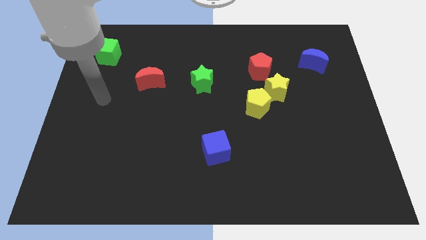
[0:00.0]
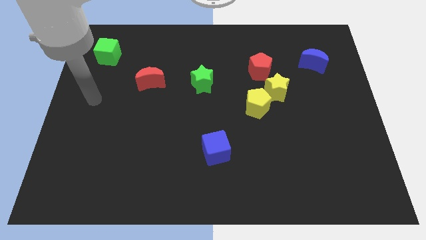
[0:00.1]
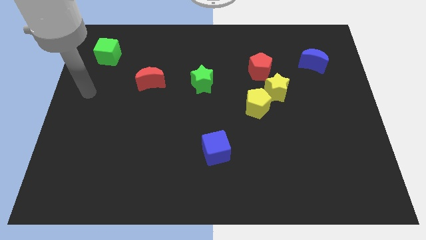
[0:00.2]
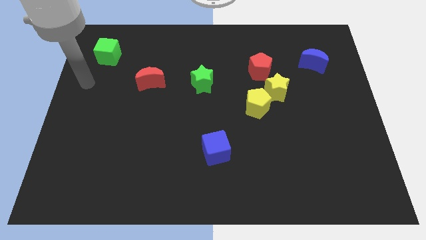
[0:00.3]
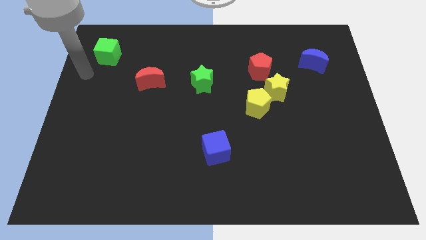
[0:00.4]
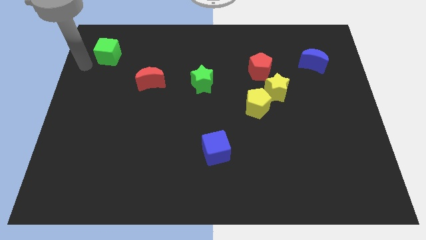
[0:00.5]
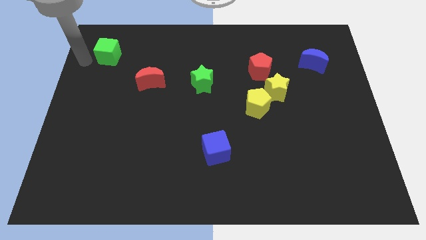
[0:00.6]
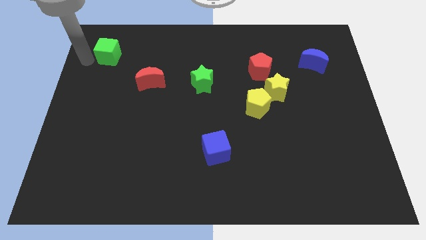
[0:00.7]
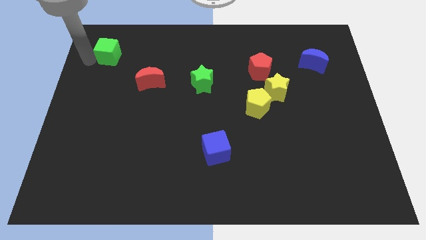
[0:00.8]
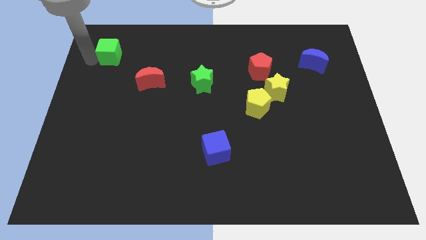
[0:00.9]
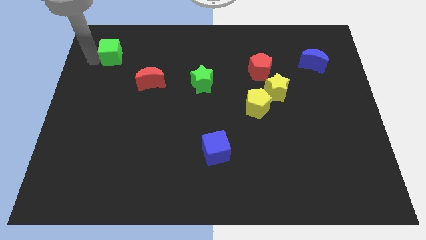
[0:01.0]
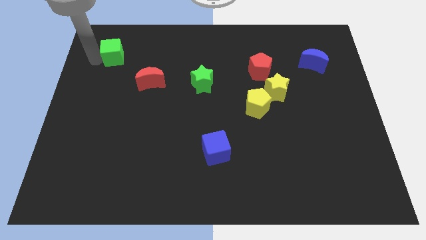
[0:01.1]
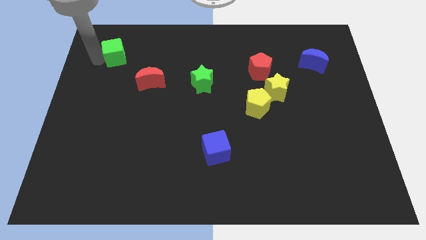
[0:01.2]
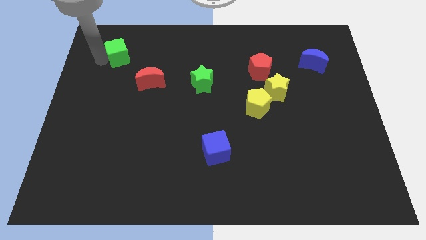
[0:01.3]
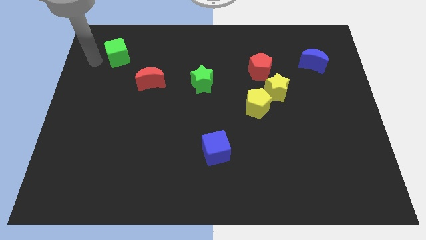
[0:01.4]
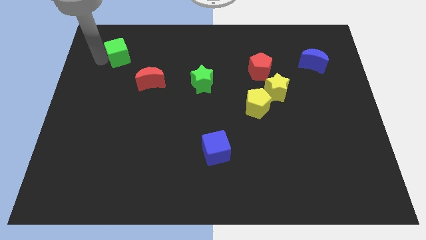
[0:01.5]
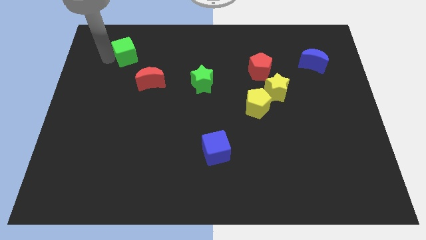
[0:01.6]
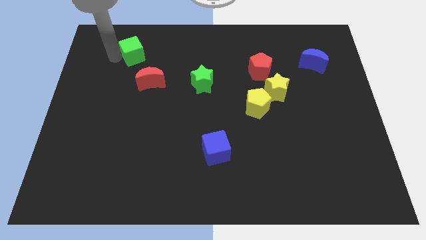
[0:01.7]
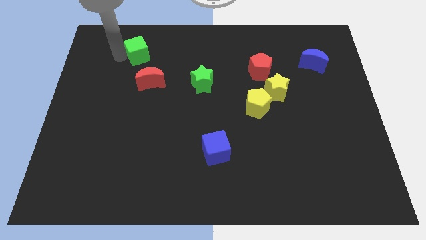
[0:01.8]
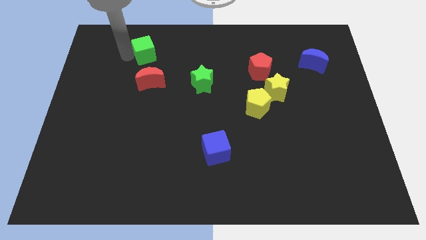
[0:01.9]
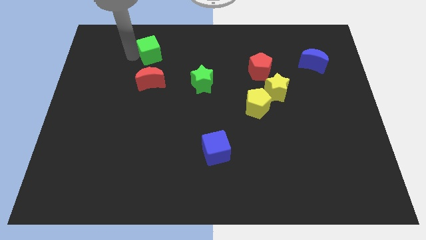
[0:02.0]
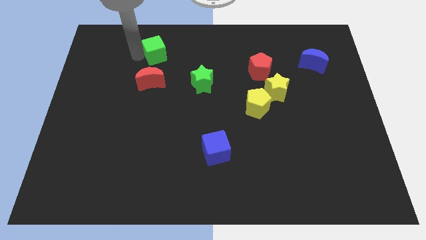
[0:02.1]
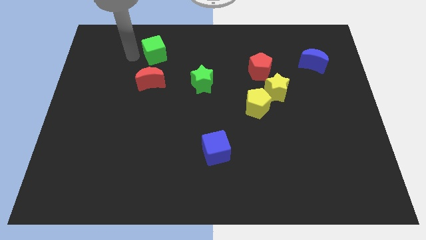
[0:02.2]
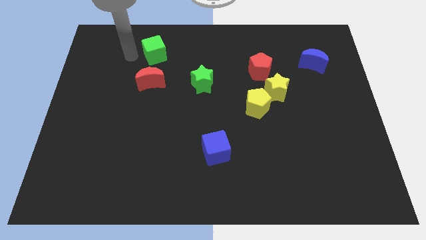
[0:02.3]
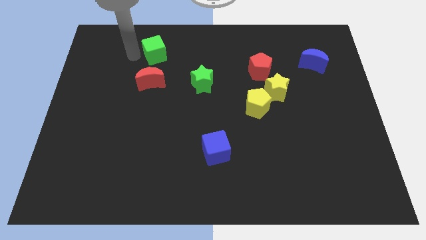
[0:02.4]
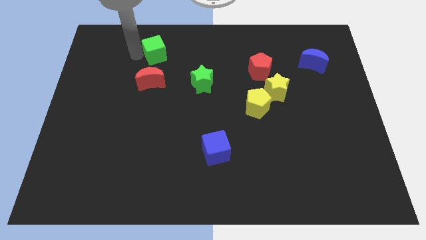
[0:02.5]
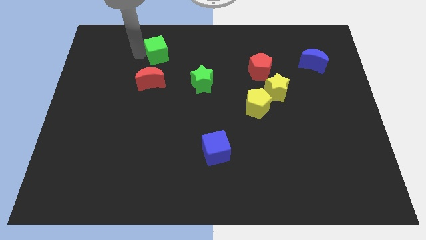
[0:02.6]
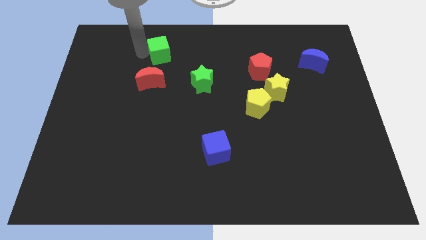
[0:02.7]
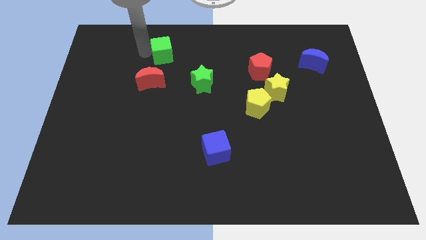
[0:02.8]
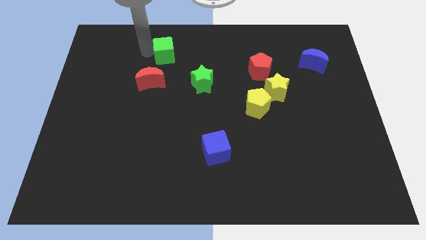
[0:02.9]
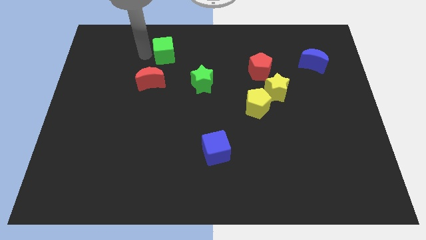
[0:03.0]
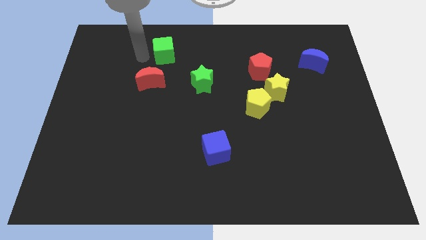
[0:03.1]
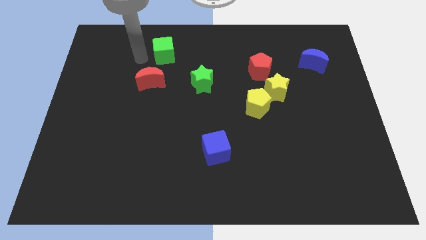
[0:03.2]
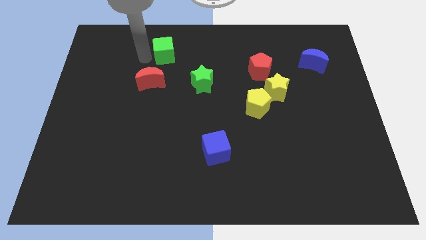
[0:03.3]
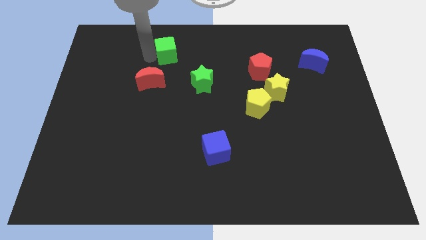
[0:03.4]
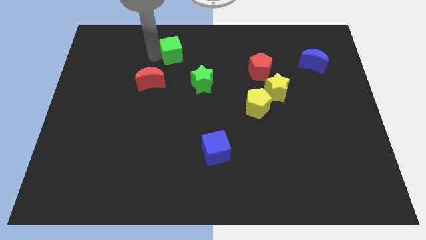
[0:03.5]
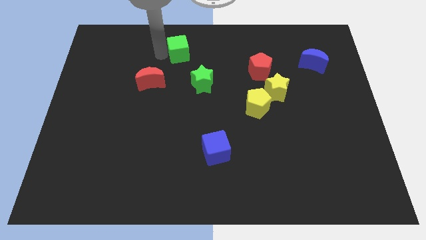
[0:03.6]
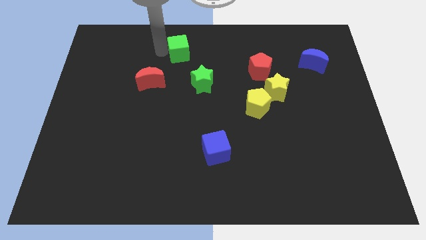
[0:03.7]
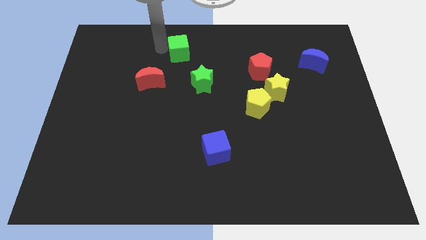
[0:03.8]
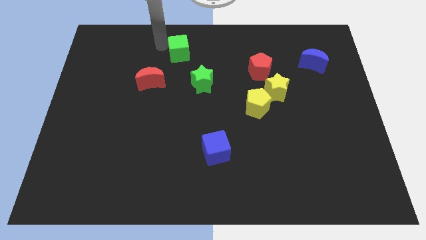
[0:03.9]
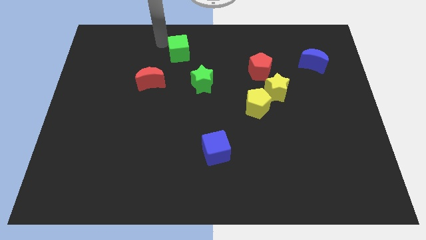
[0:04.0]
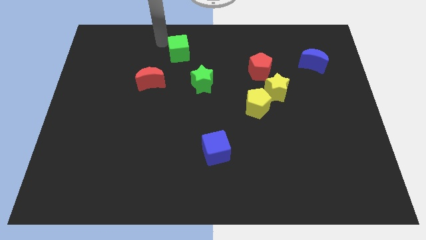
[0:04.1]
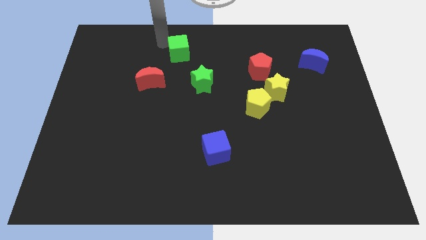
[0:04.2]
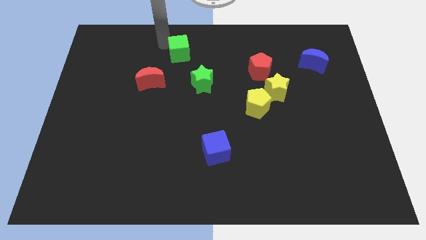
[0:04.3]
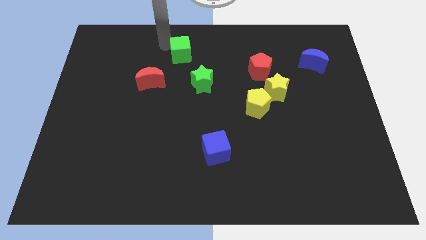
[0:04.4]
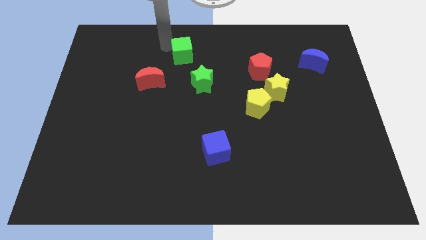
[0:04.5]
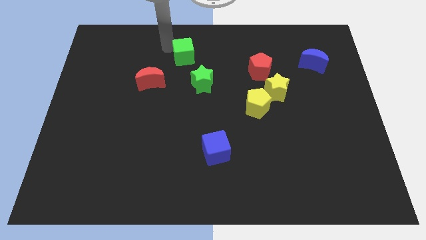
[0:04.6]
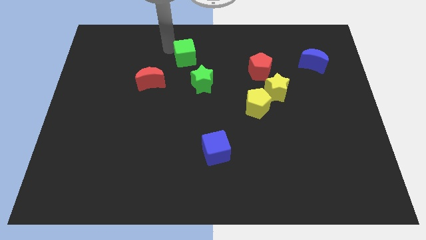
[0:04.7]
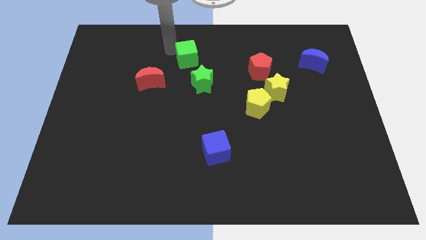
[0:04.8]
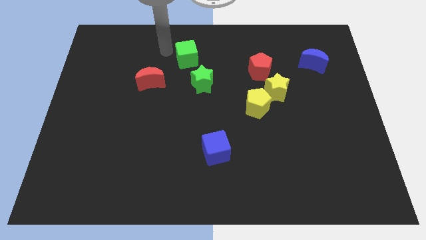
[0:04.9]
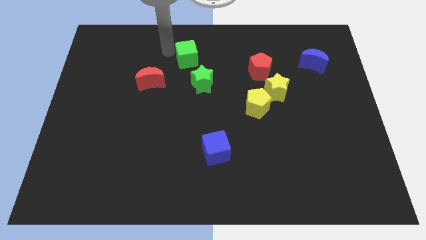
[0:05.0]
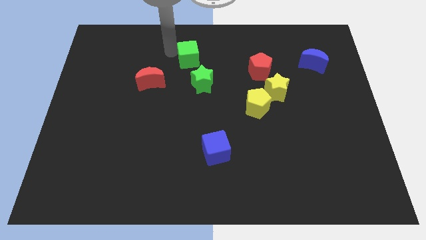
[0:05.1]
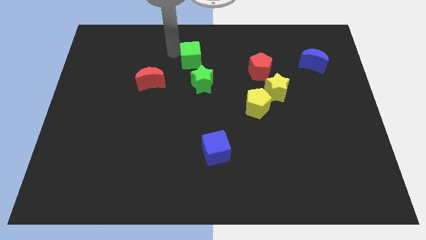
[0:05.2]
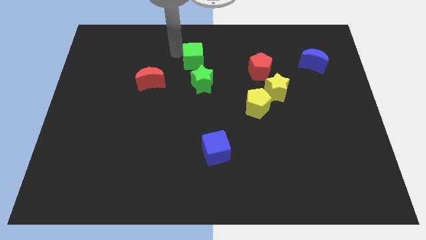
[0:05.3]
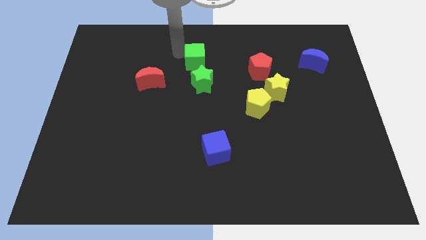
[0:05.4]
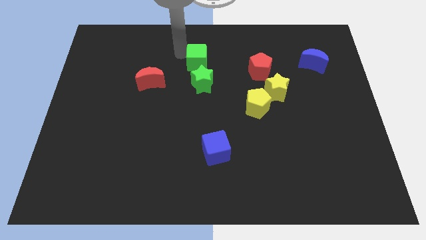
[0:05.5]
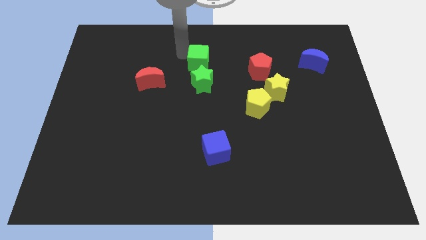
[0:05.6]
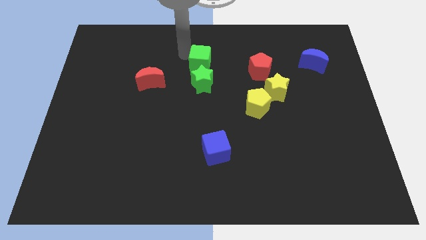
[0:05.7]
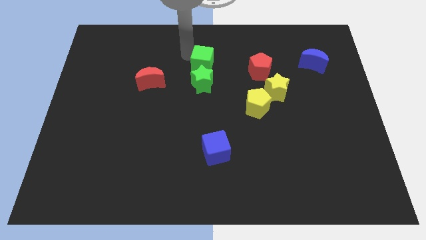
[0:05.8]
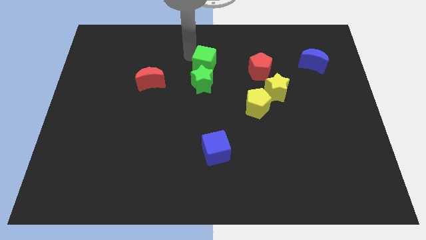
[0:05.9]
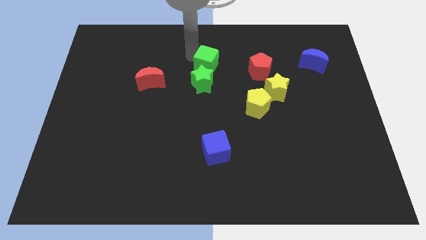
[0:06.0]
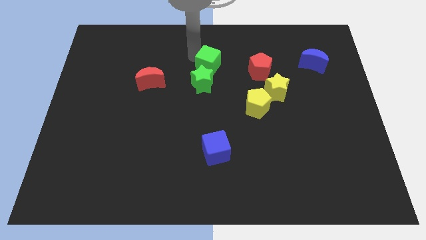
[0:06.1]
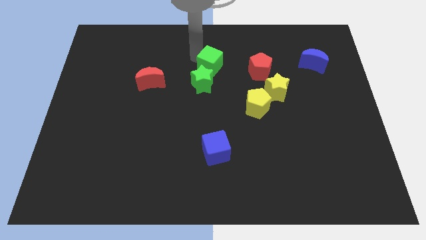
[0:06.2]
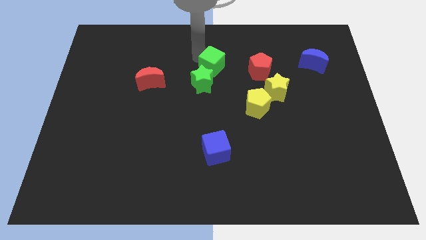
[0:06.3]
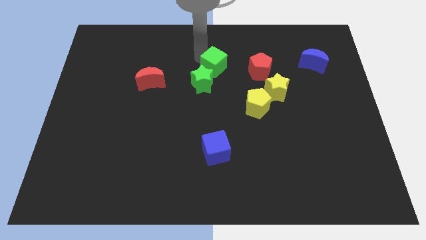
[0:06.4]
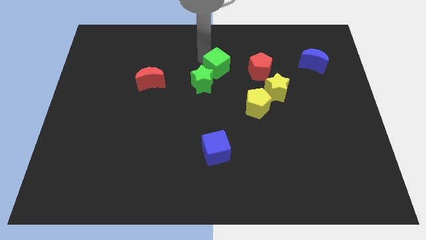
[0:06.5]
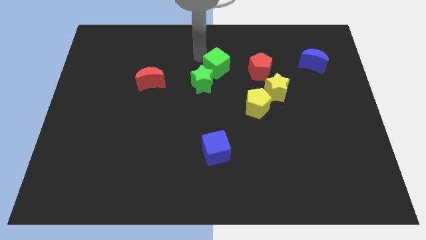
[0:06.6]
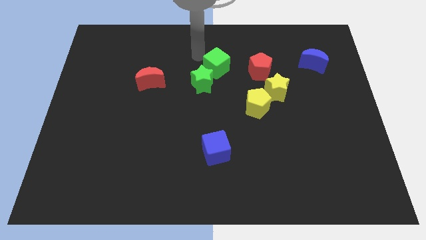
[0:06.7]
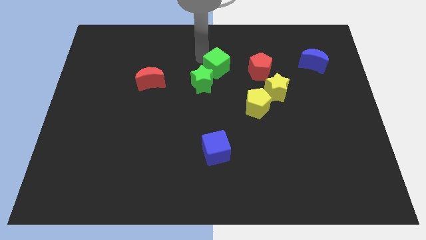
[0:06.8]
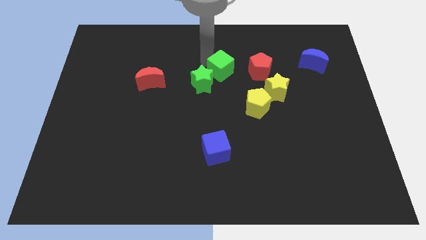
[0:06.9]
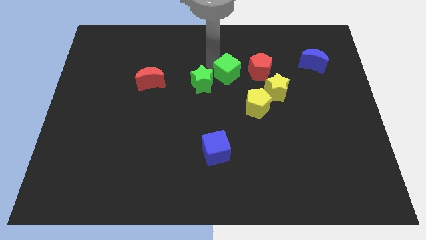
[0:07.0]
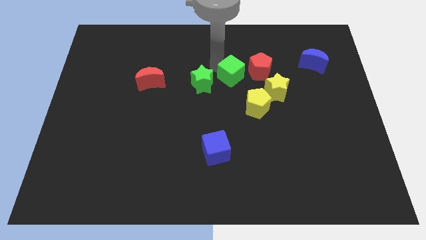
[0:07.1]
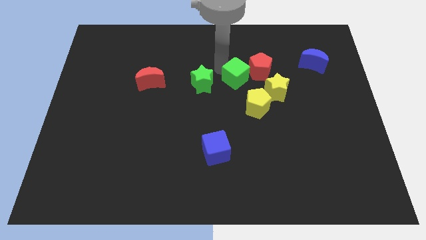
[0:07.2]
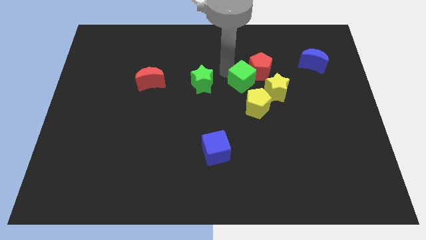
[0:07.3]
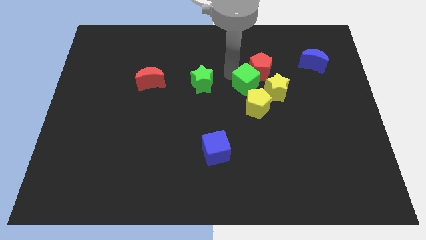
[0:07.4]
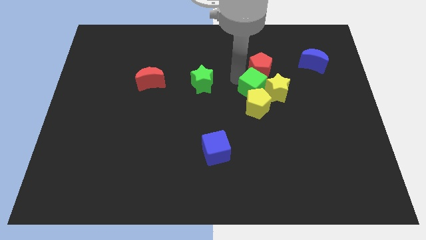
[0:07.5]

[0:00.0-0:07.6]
slide the green cube close to the yellow star
